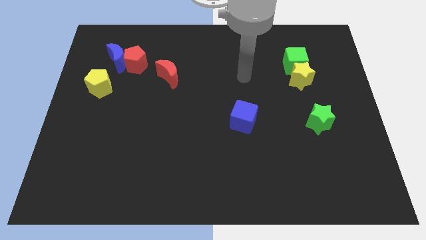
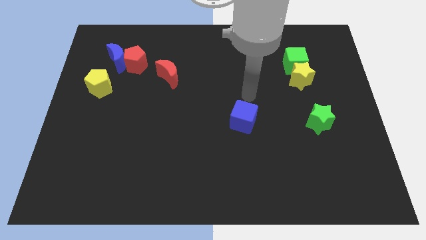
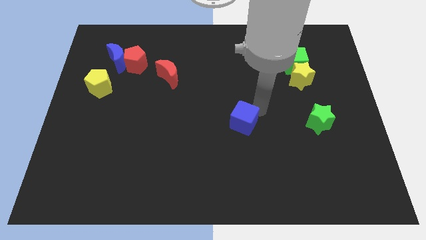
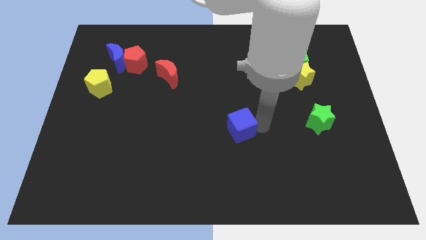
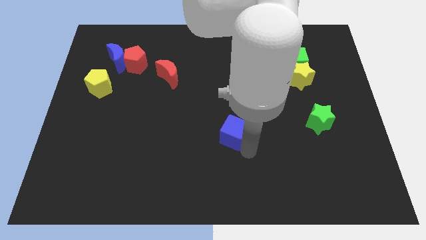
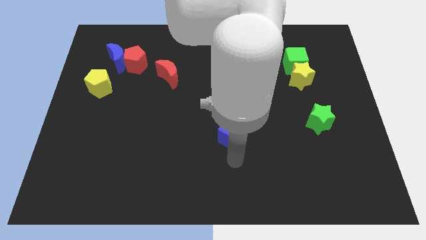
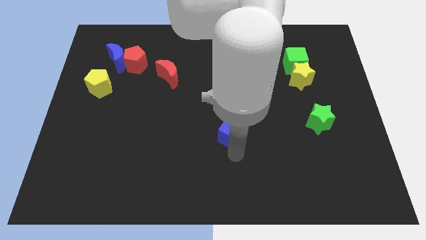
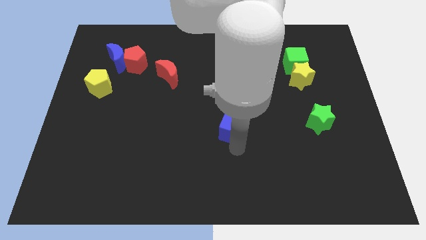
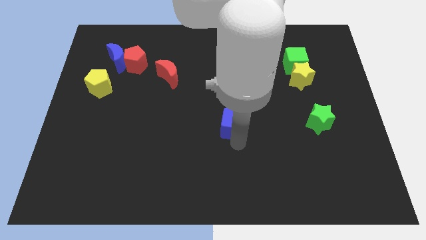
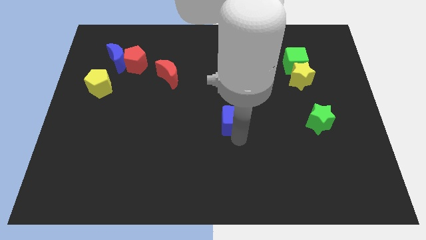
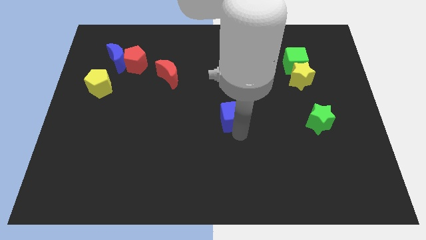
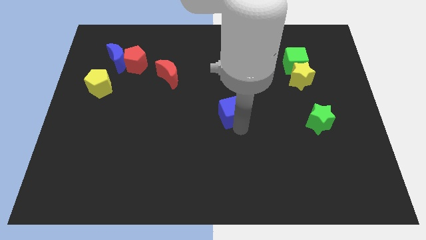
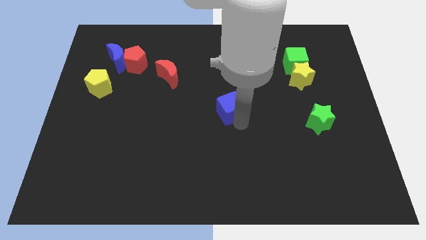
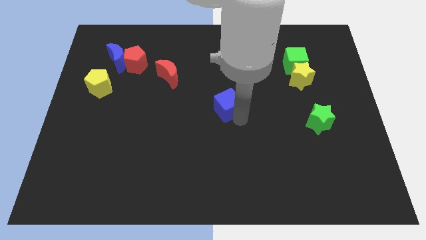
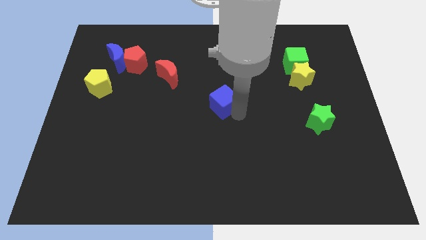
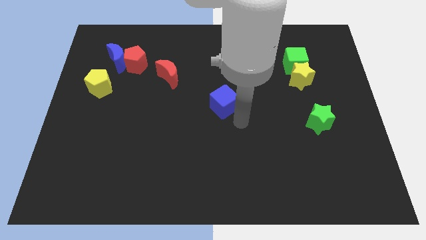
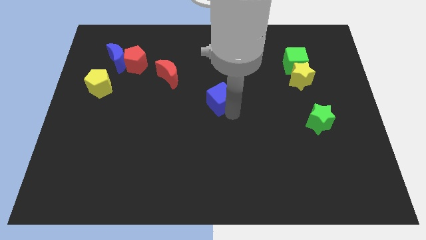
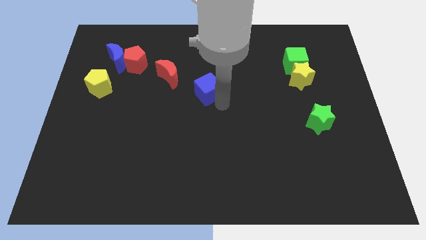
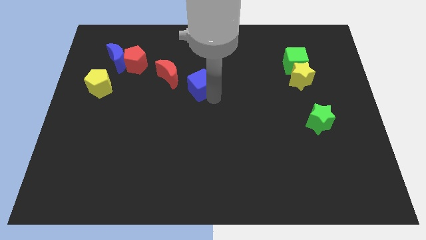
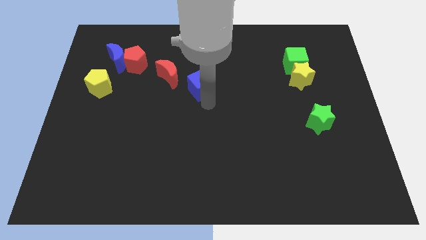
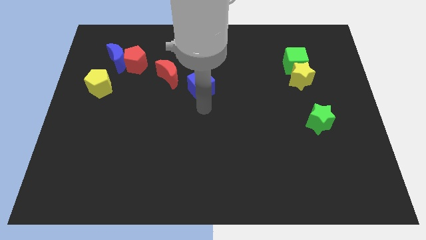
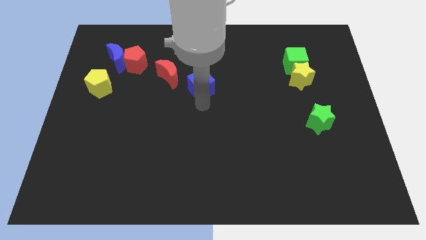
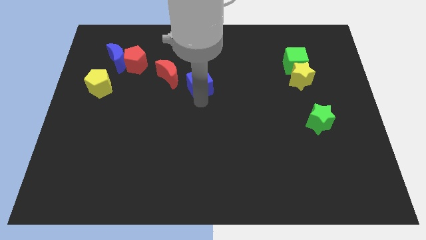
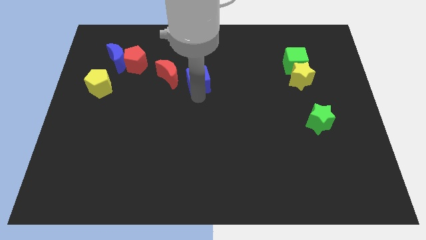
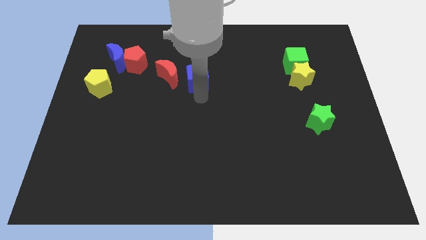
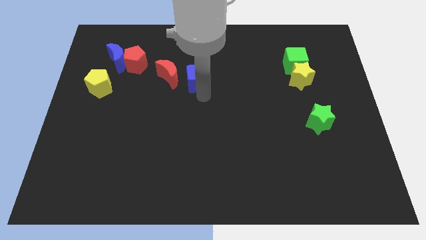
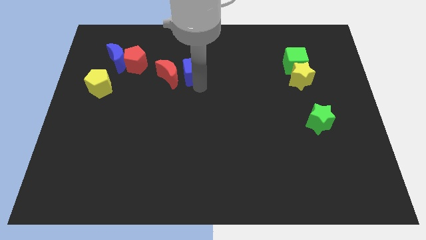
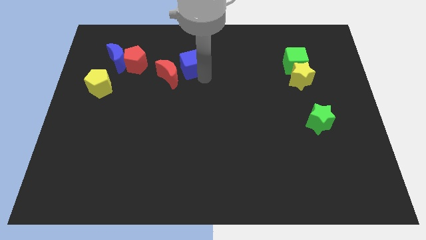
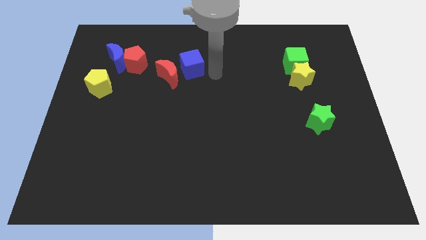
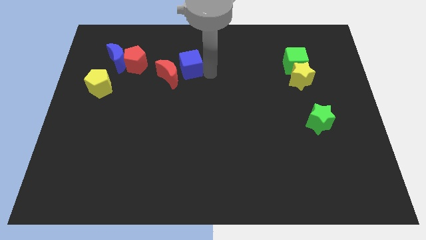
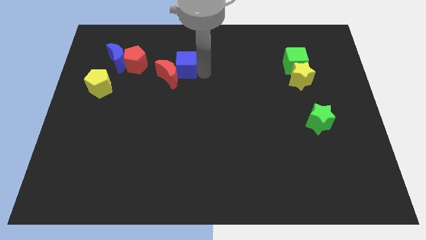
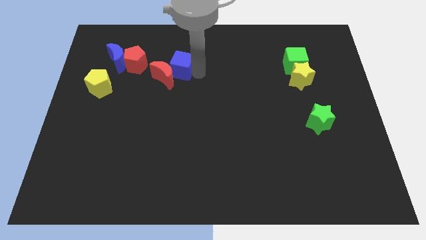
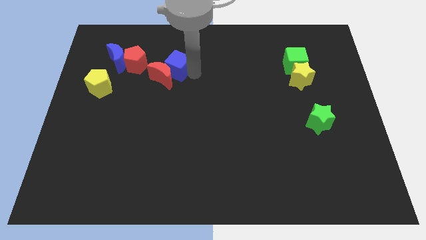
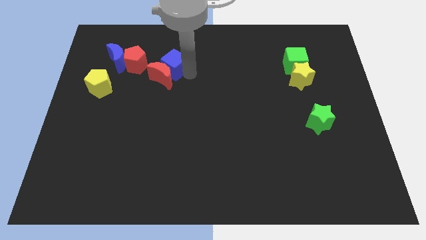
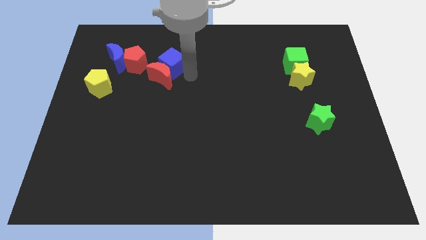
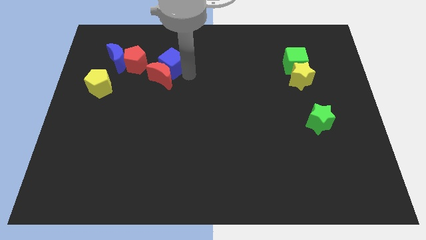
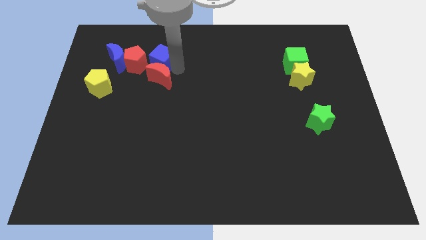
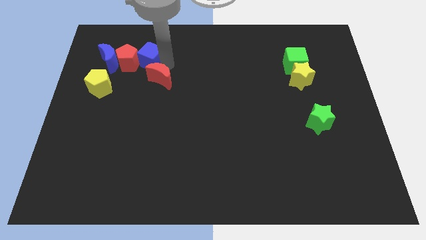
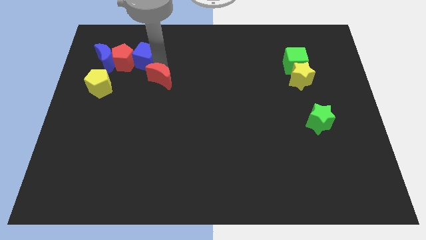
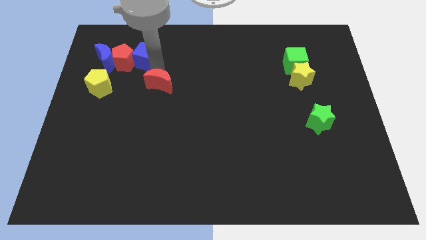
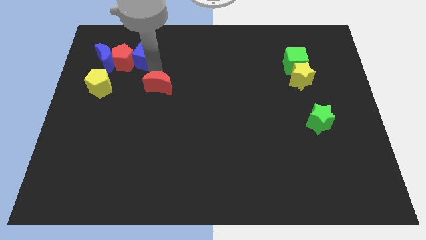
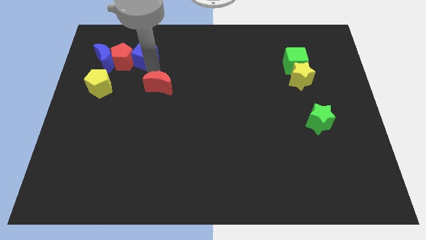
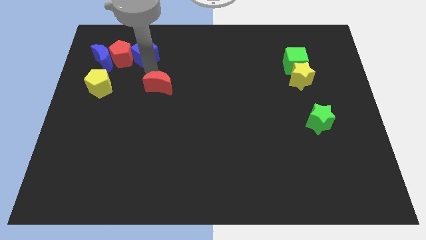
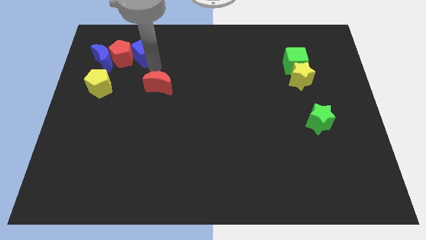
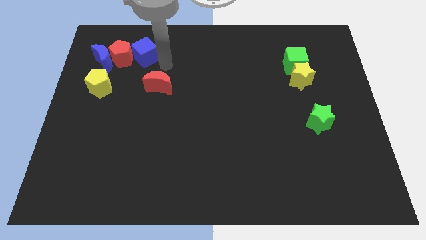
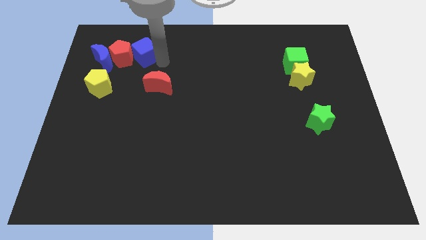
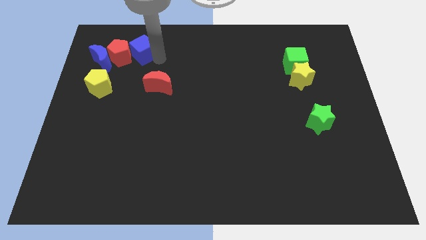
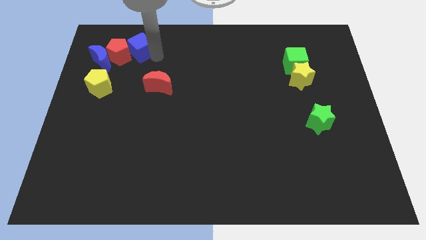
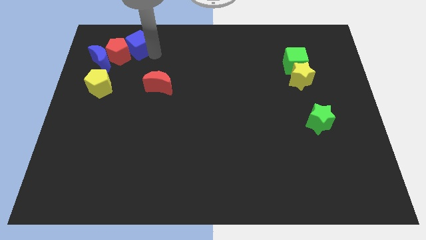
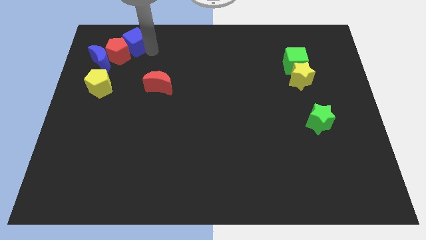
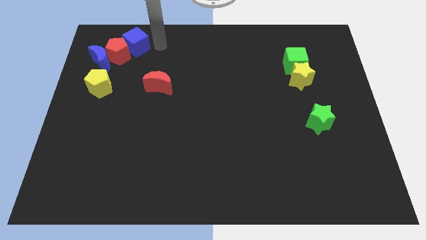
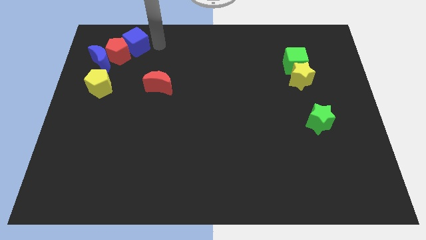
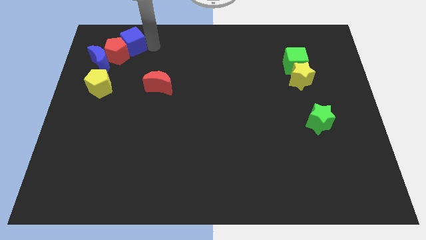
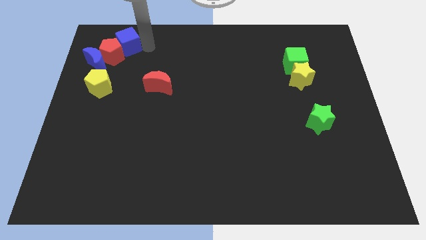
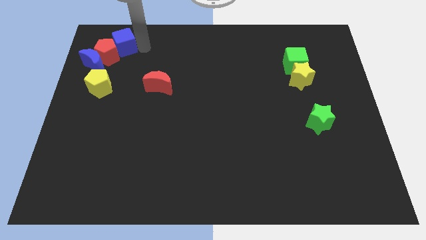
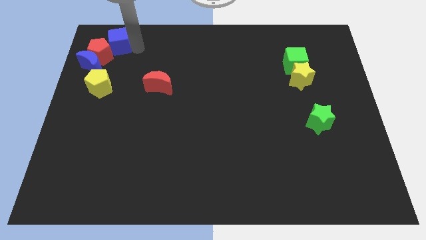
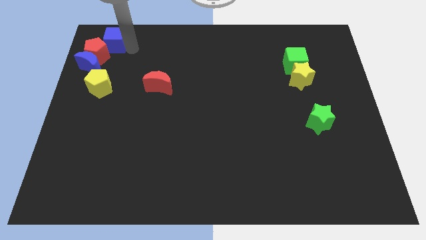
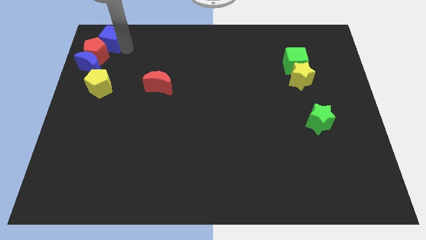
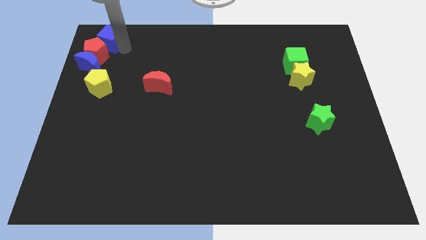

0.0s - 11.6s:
slide the blue cube to the top left corner
